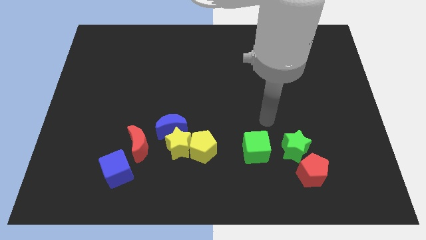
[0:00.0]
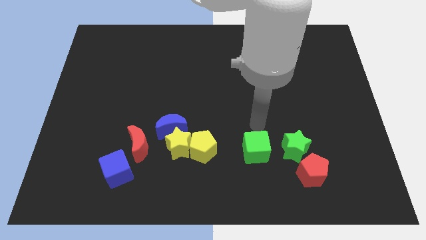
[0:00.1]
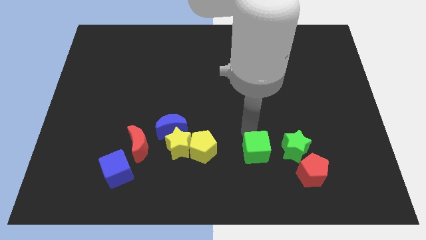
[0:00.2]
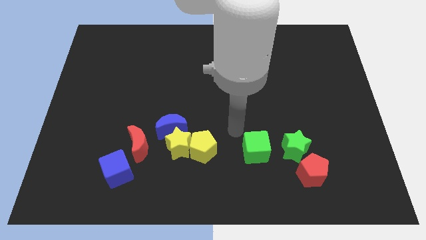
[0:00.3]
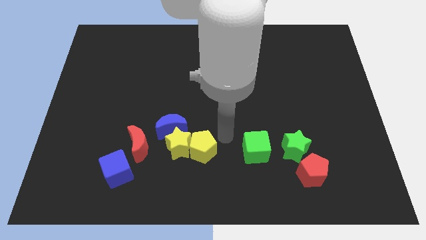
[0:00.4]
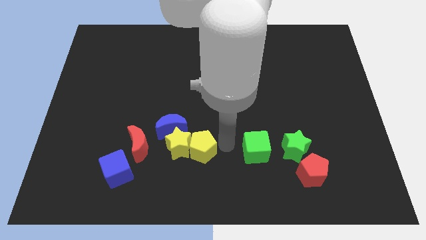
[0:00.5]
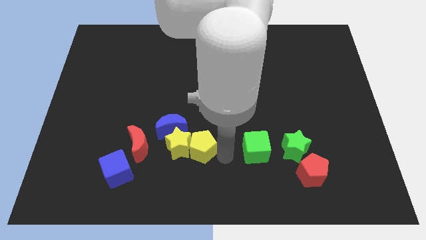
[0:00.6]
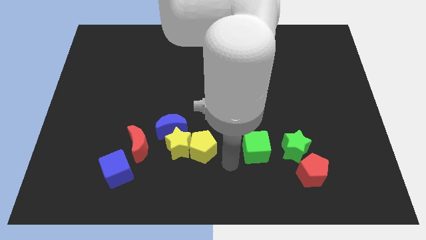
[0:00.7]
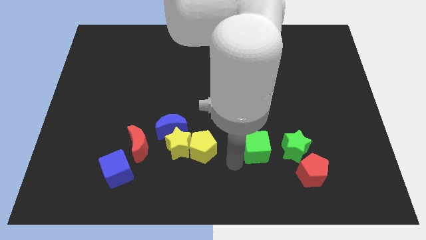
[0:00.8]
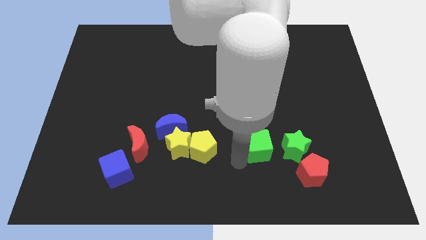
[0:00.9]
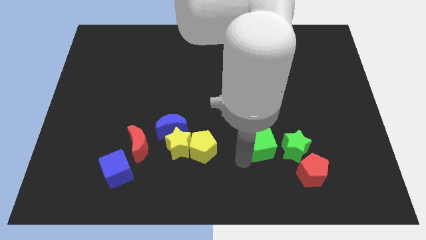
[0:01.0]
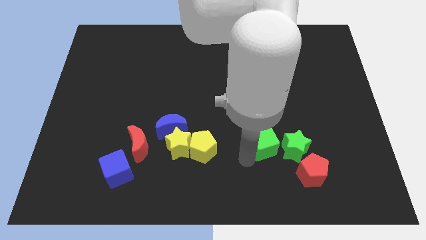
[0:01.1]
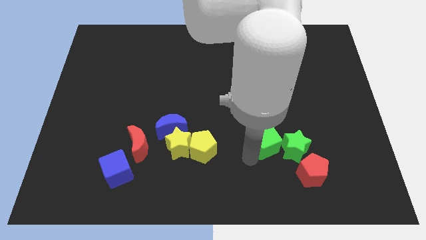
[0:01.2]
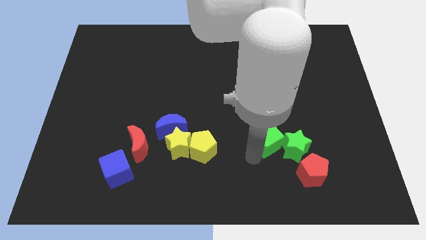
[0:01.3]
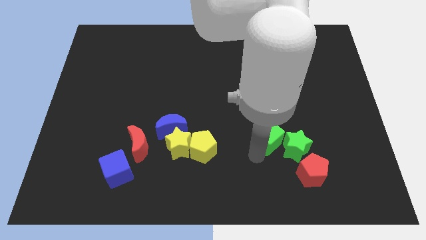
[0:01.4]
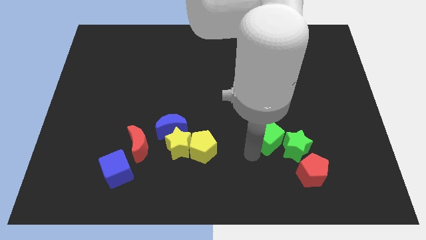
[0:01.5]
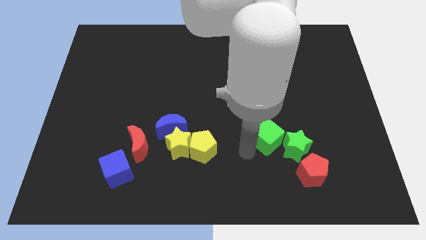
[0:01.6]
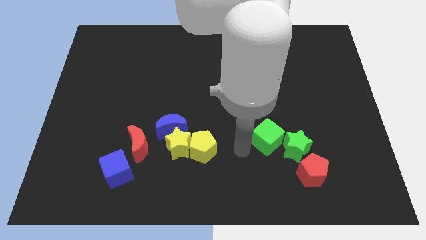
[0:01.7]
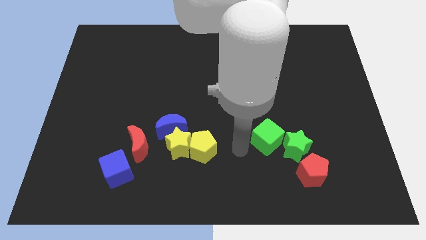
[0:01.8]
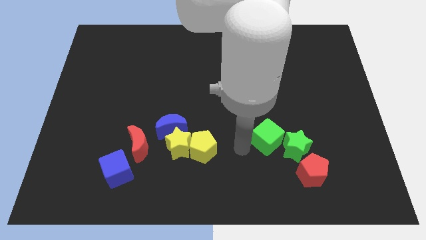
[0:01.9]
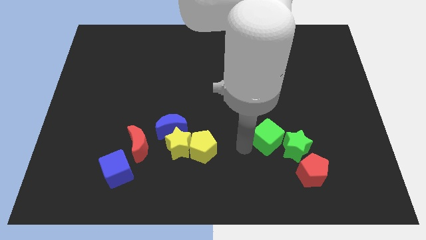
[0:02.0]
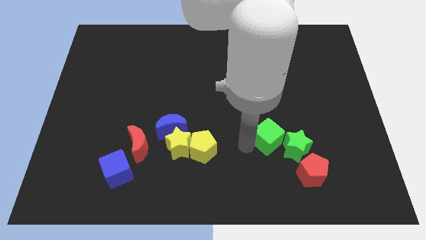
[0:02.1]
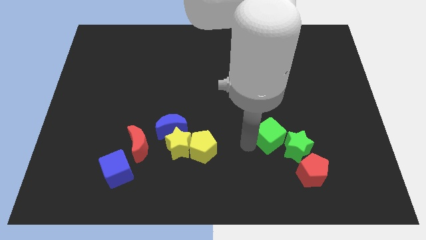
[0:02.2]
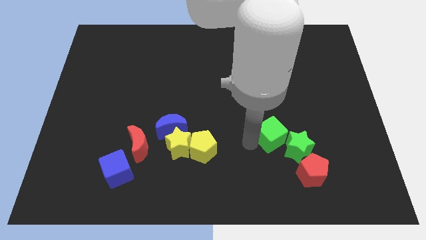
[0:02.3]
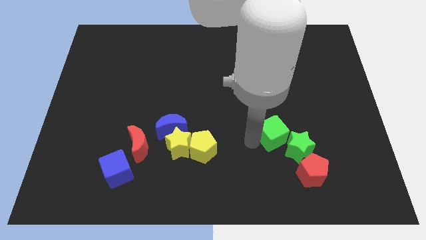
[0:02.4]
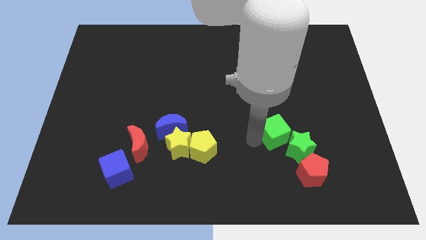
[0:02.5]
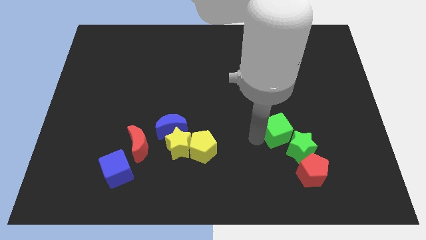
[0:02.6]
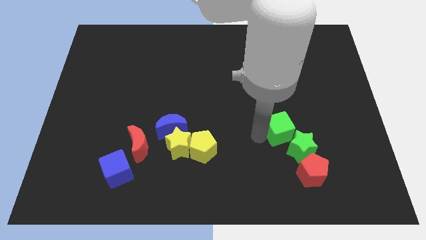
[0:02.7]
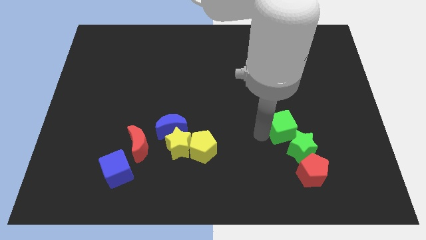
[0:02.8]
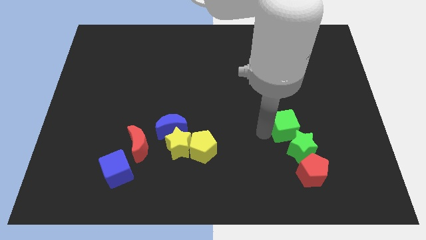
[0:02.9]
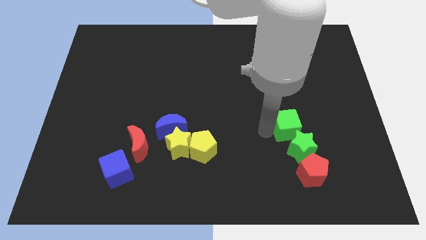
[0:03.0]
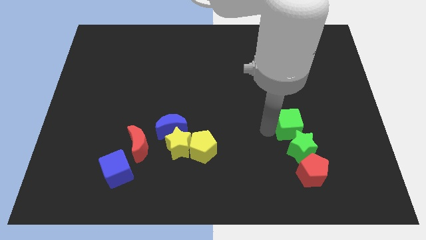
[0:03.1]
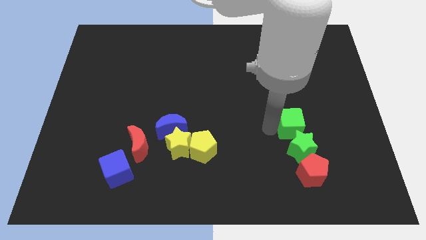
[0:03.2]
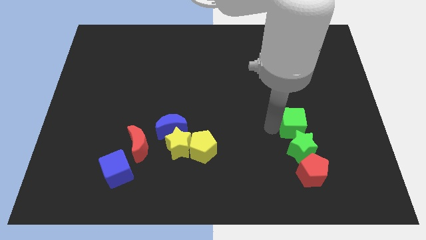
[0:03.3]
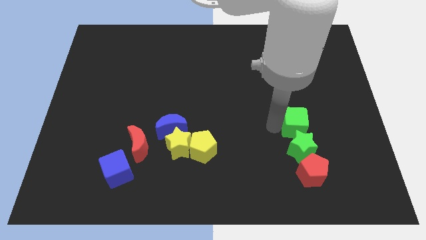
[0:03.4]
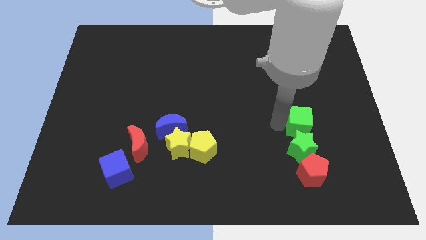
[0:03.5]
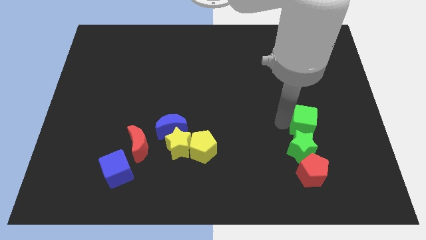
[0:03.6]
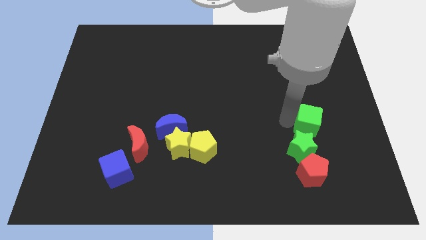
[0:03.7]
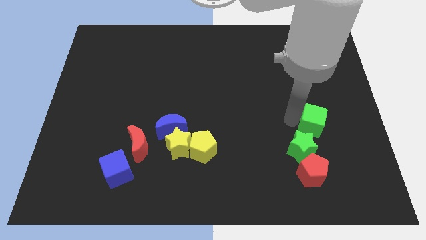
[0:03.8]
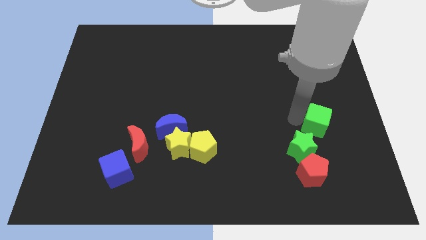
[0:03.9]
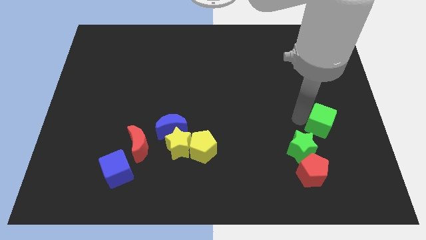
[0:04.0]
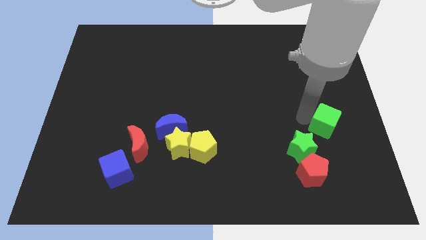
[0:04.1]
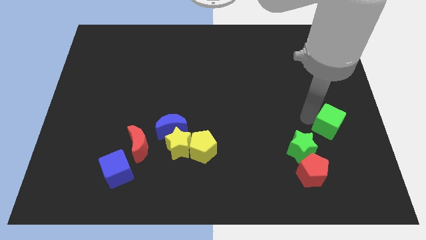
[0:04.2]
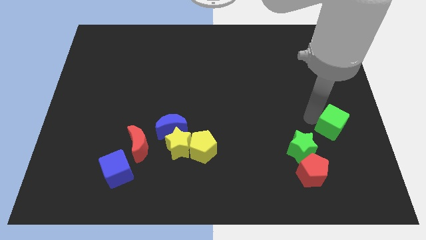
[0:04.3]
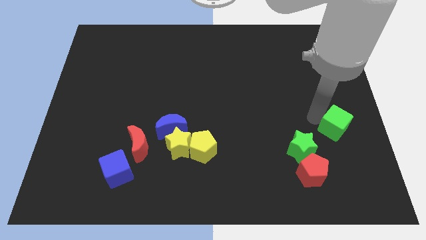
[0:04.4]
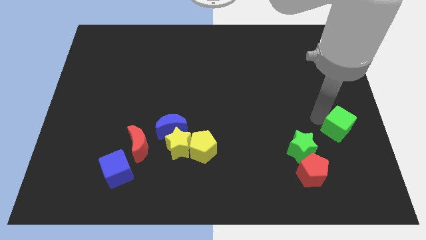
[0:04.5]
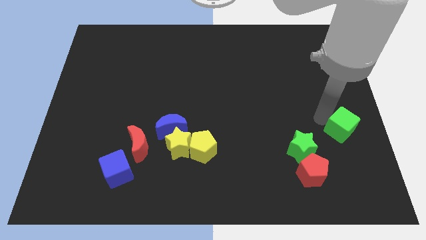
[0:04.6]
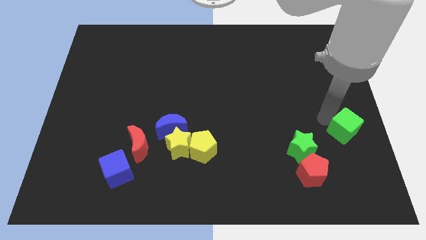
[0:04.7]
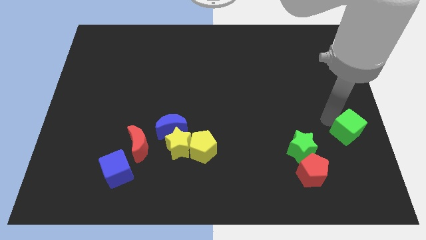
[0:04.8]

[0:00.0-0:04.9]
push the green cube to the right side of the green star

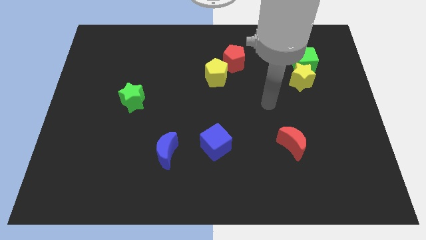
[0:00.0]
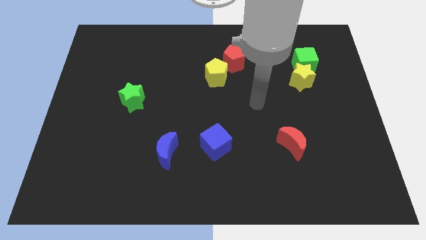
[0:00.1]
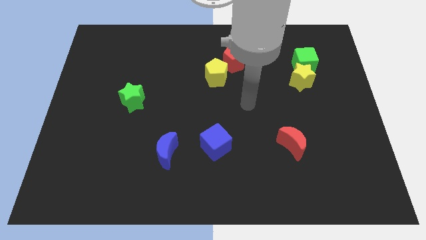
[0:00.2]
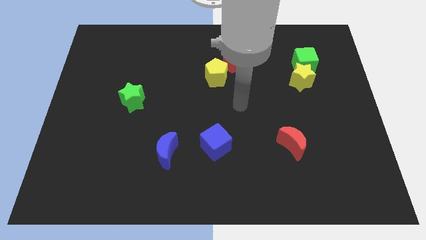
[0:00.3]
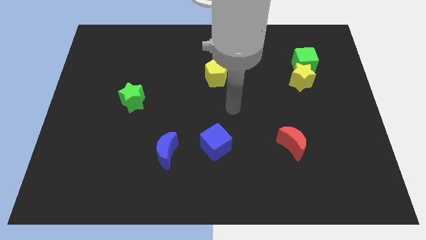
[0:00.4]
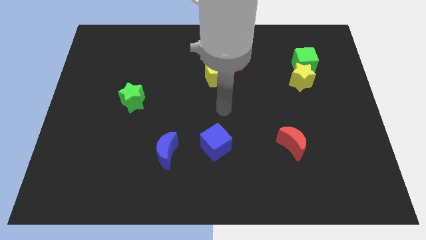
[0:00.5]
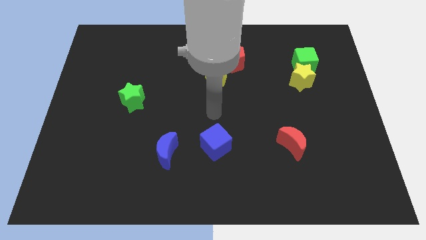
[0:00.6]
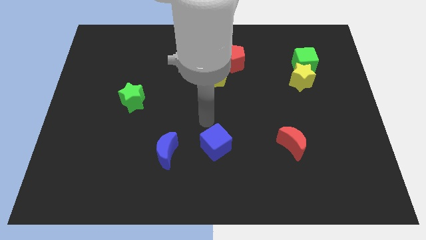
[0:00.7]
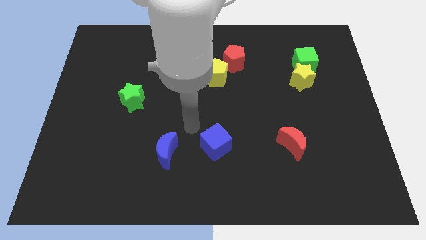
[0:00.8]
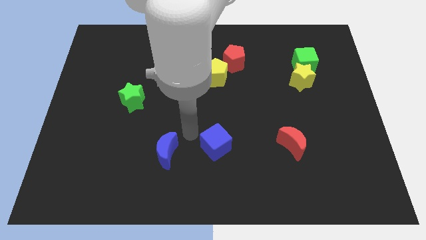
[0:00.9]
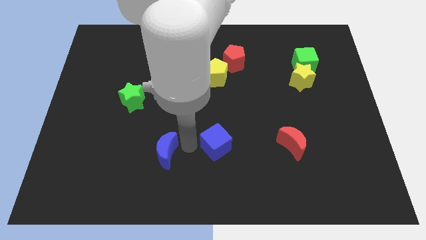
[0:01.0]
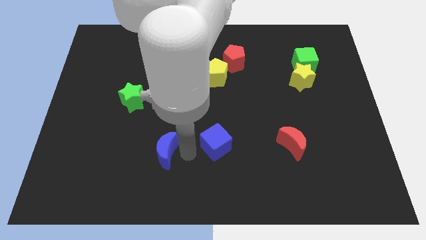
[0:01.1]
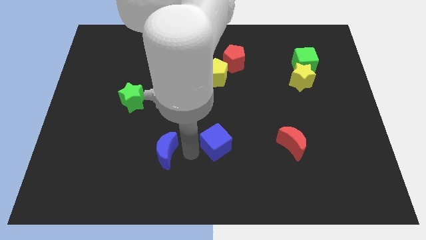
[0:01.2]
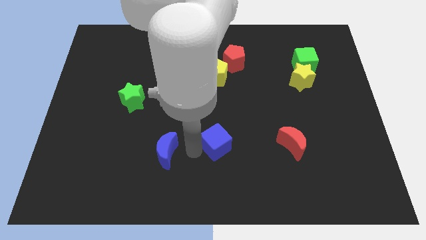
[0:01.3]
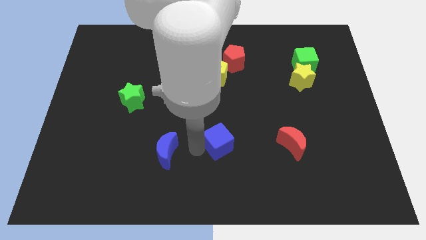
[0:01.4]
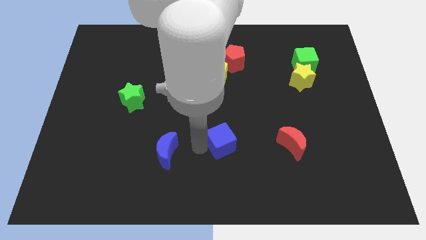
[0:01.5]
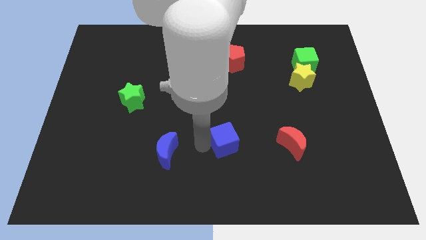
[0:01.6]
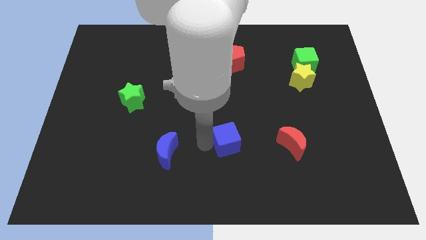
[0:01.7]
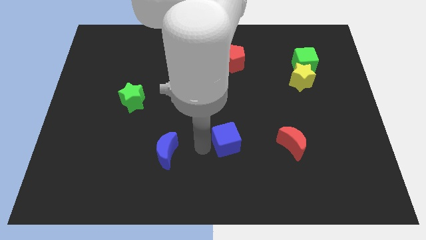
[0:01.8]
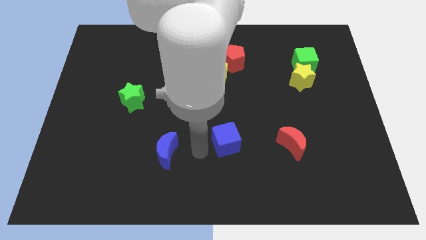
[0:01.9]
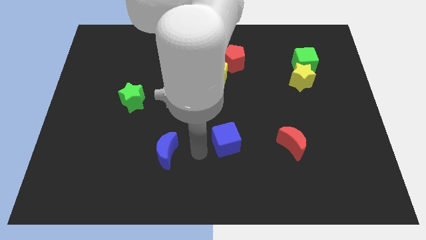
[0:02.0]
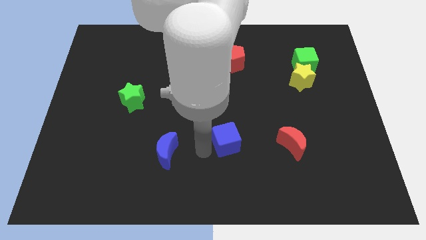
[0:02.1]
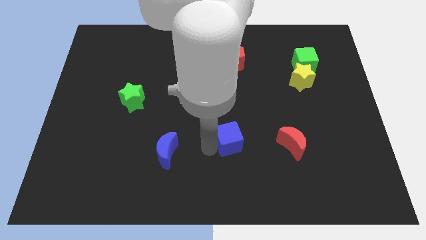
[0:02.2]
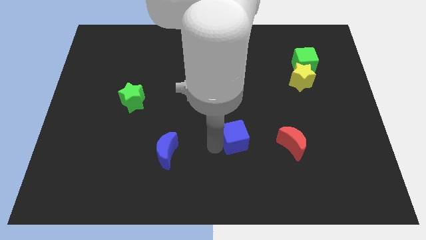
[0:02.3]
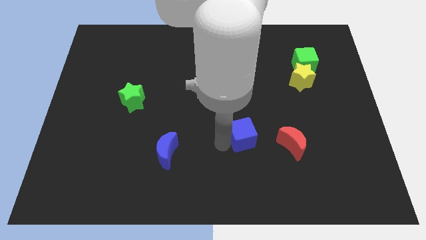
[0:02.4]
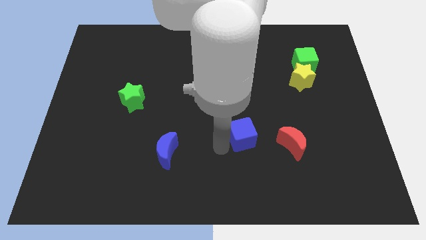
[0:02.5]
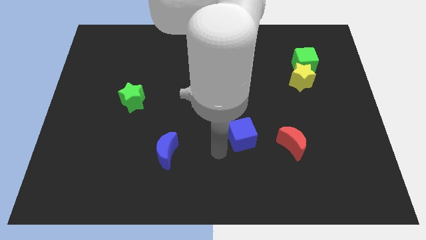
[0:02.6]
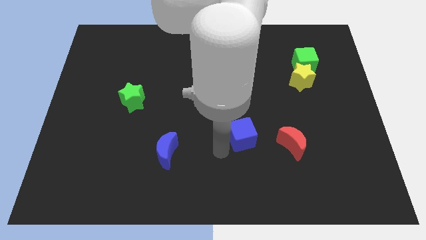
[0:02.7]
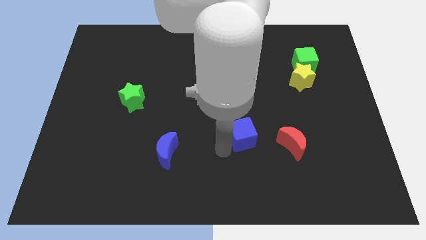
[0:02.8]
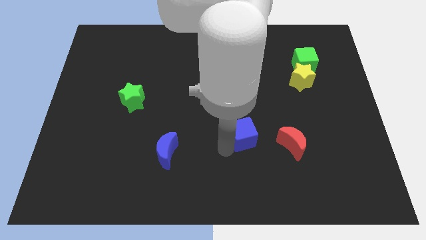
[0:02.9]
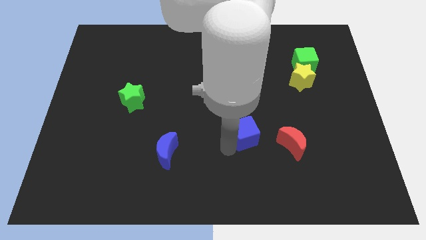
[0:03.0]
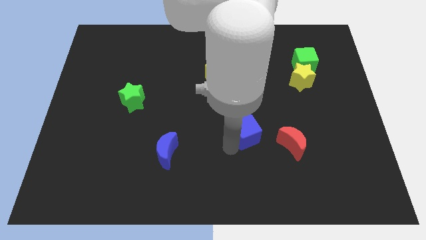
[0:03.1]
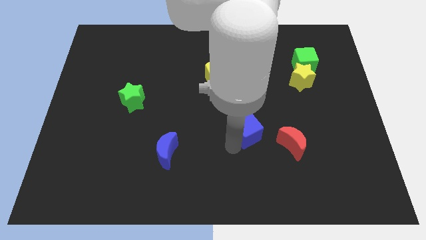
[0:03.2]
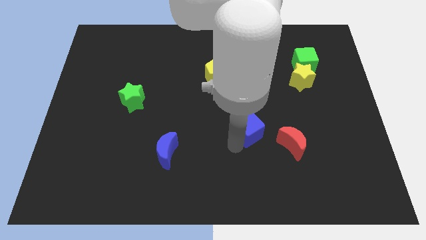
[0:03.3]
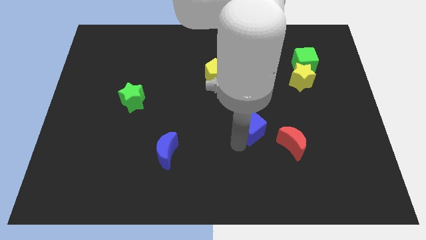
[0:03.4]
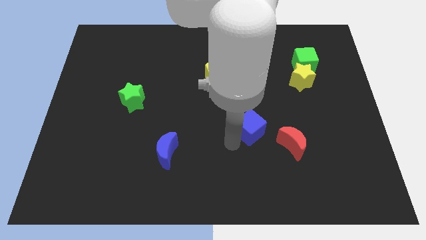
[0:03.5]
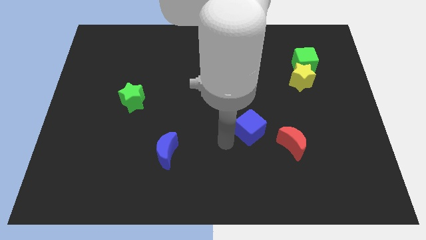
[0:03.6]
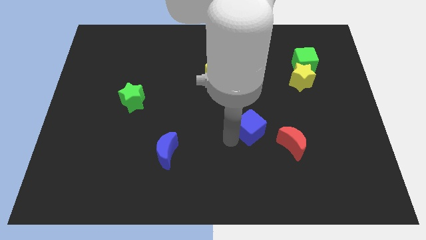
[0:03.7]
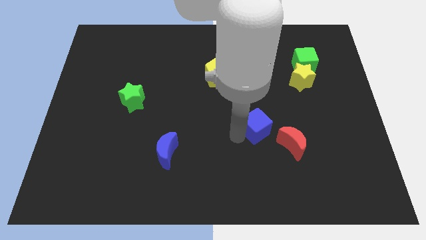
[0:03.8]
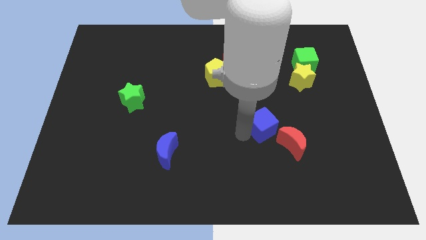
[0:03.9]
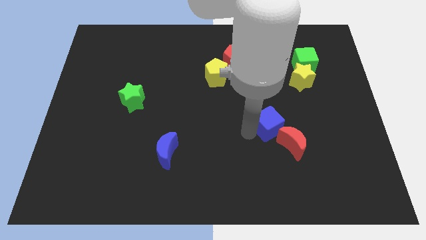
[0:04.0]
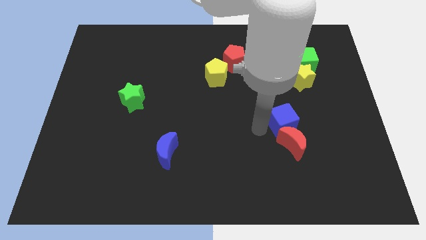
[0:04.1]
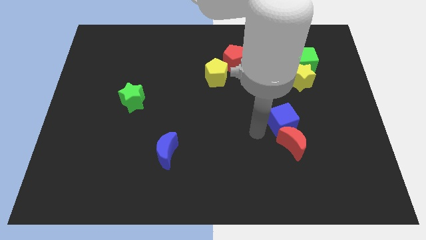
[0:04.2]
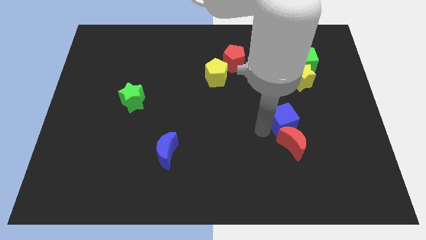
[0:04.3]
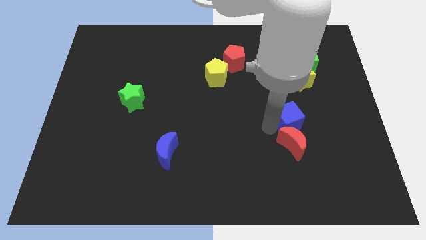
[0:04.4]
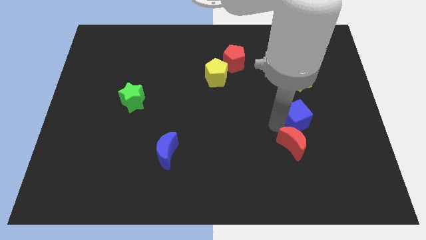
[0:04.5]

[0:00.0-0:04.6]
slide the blue cube to the bottom side of the yellow star
